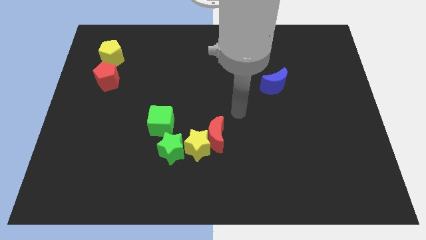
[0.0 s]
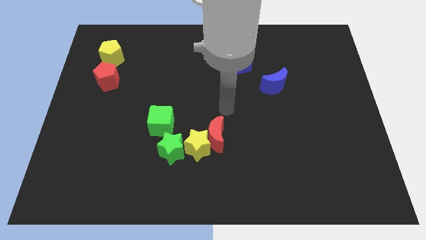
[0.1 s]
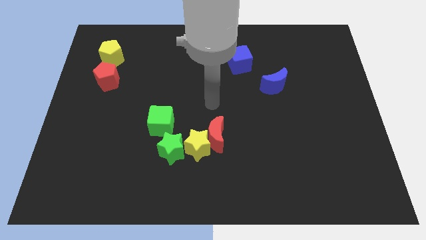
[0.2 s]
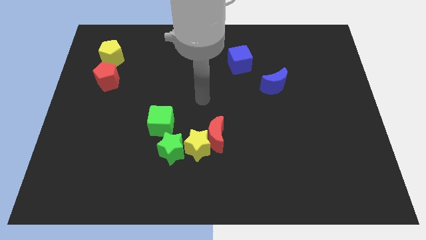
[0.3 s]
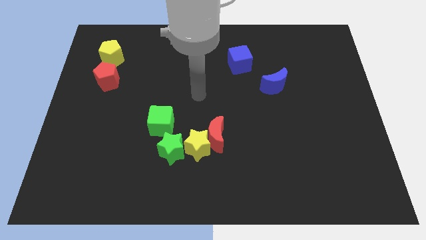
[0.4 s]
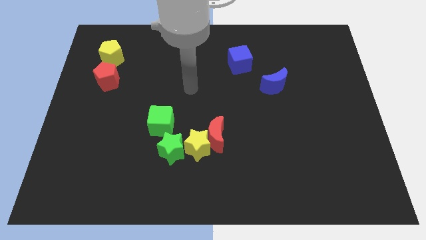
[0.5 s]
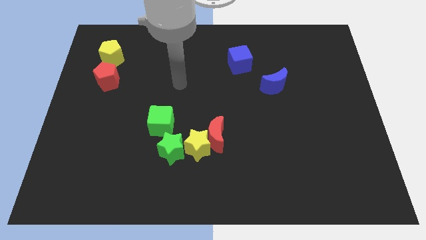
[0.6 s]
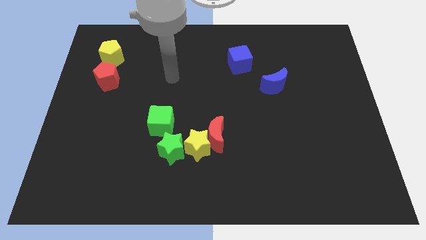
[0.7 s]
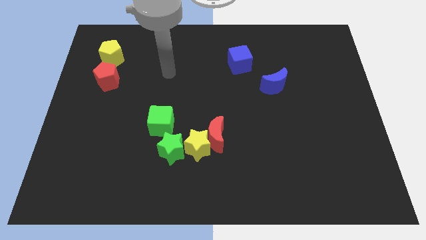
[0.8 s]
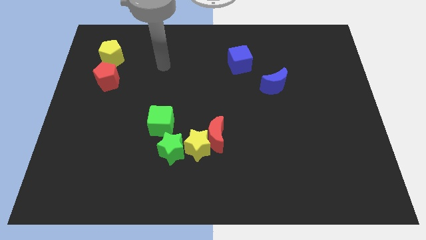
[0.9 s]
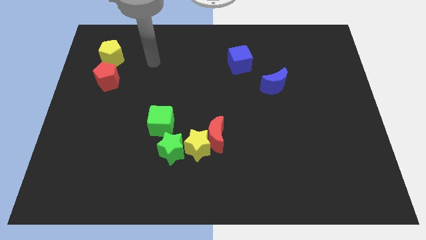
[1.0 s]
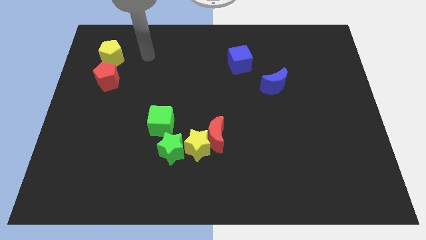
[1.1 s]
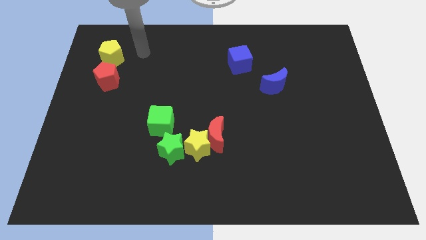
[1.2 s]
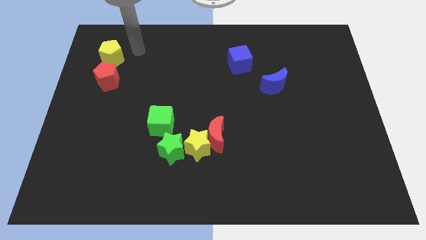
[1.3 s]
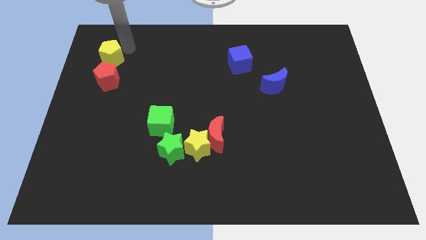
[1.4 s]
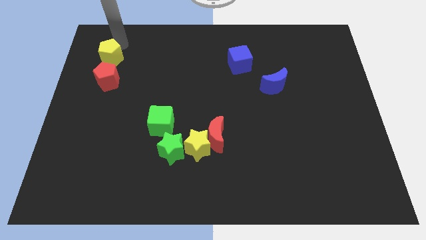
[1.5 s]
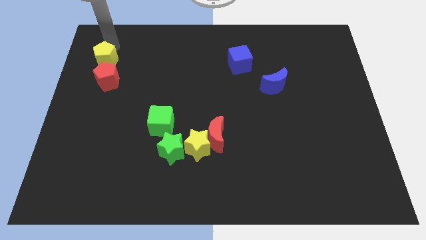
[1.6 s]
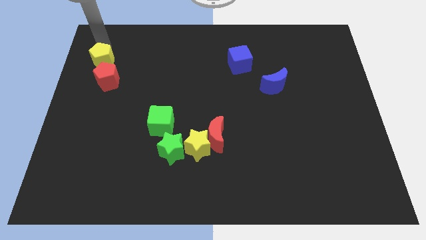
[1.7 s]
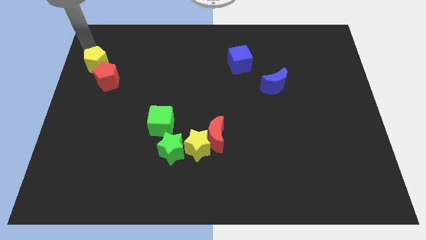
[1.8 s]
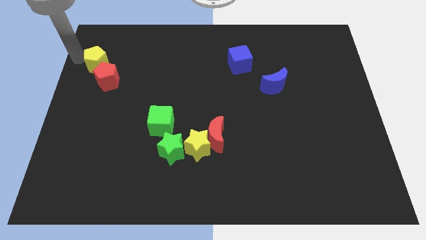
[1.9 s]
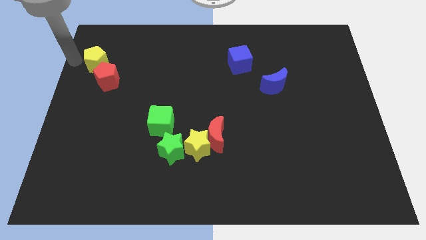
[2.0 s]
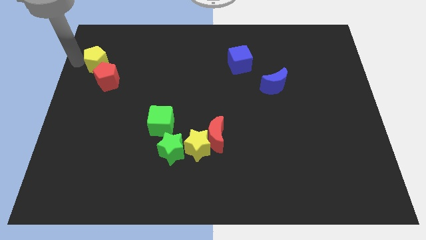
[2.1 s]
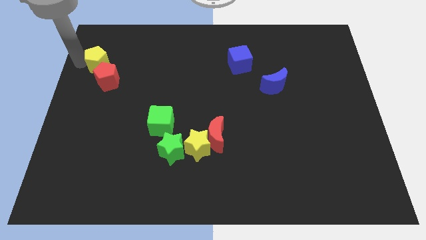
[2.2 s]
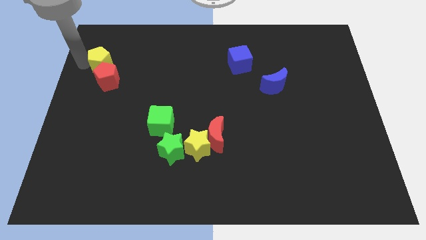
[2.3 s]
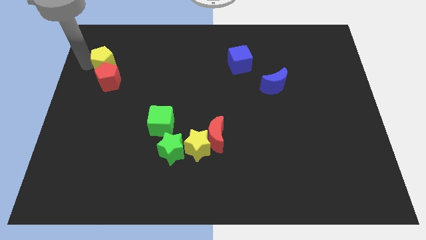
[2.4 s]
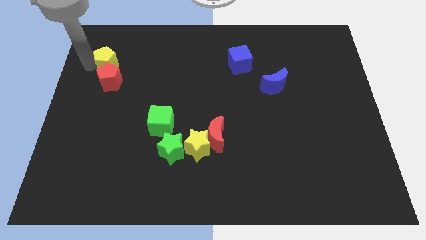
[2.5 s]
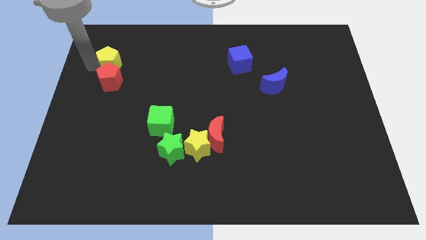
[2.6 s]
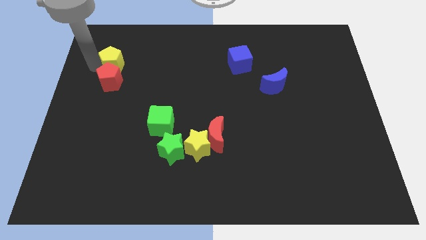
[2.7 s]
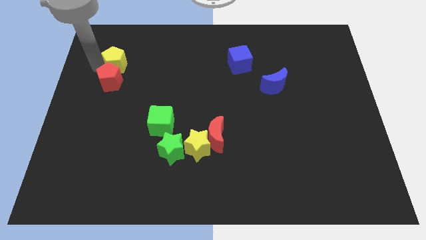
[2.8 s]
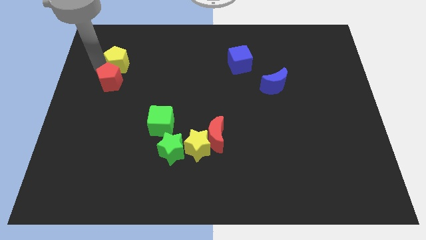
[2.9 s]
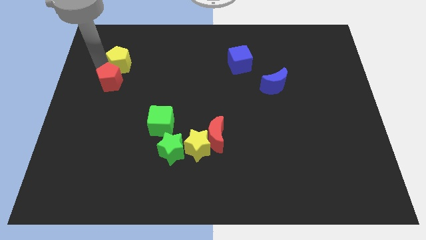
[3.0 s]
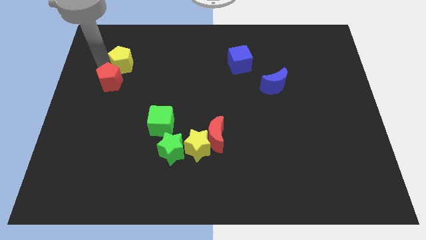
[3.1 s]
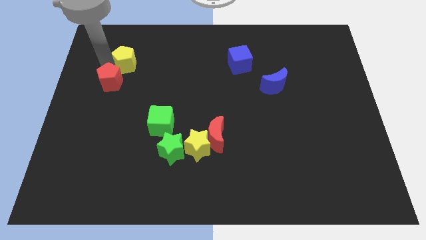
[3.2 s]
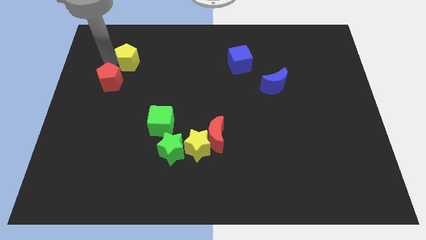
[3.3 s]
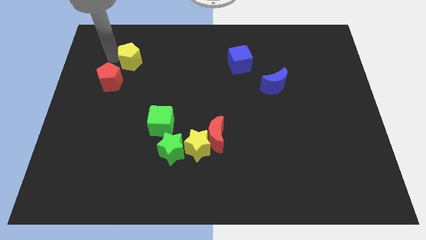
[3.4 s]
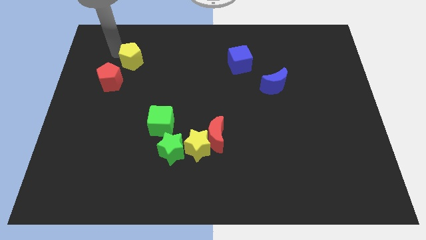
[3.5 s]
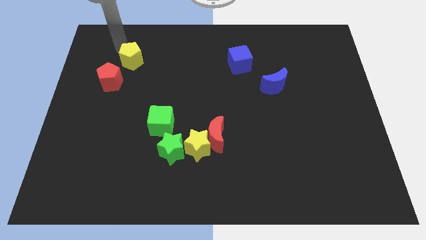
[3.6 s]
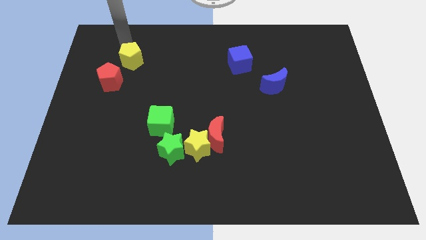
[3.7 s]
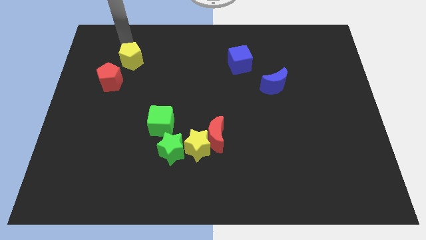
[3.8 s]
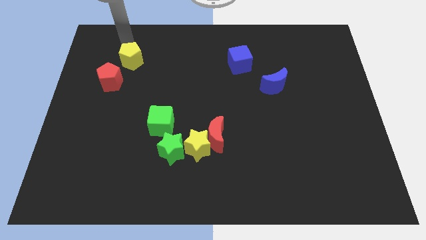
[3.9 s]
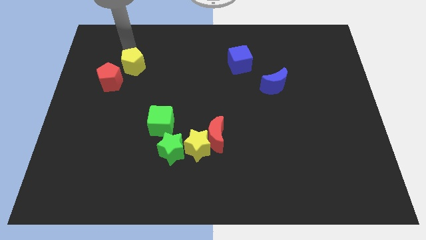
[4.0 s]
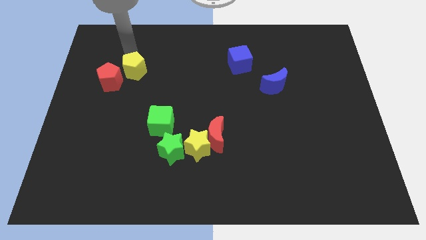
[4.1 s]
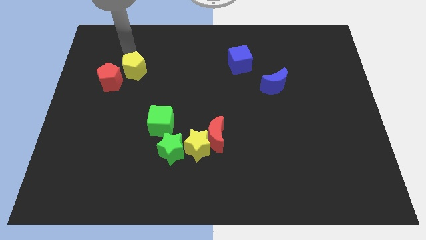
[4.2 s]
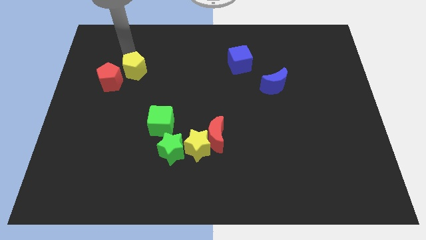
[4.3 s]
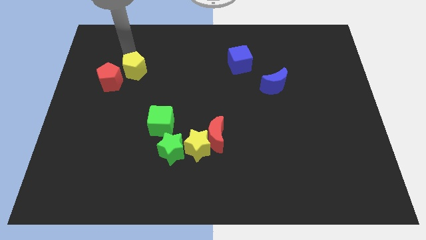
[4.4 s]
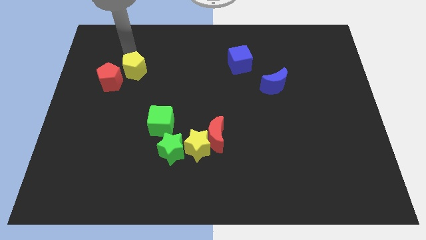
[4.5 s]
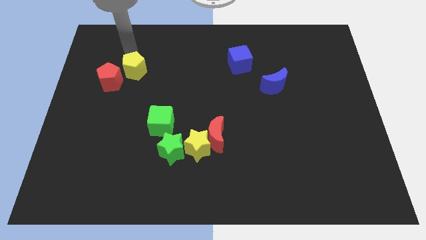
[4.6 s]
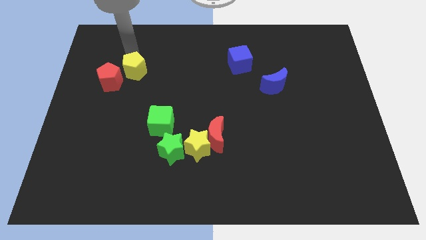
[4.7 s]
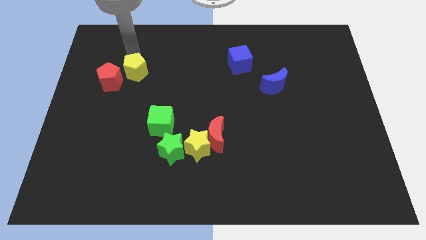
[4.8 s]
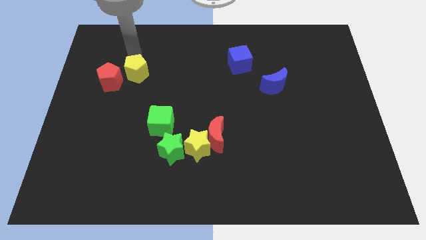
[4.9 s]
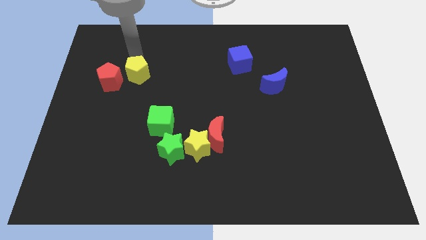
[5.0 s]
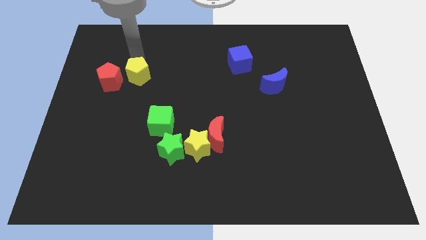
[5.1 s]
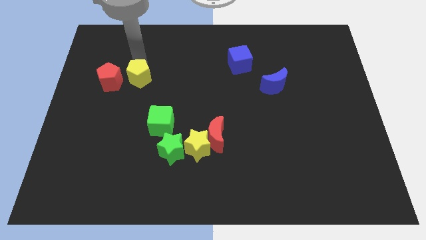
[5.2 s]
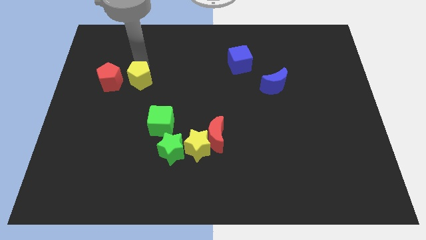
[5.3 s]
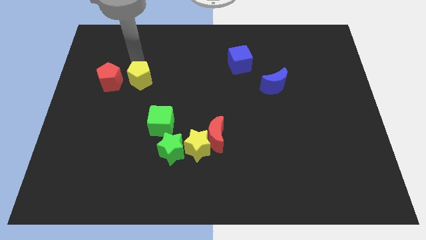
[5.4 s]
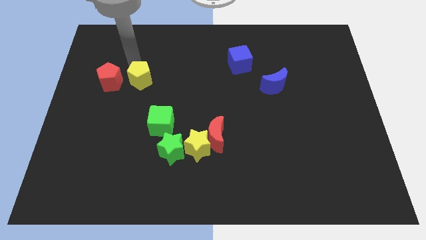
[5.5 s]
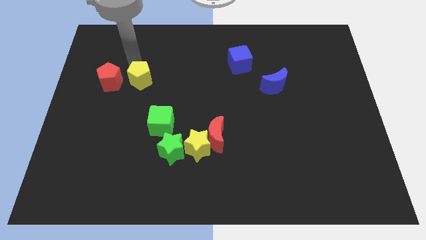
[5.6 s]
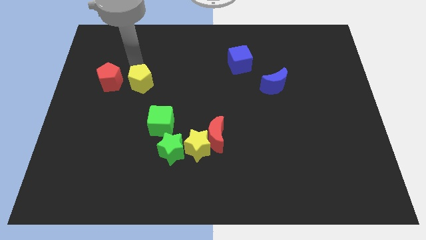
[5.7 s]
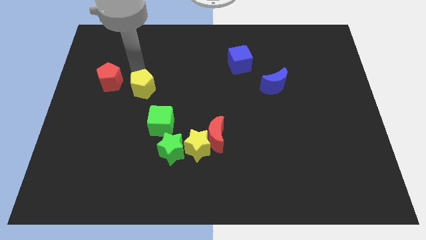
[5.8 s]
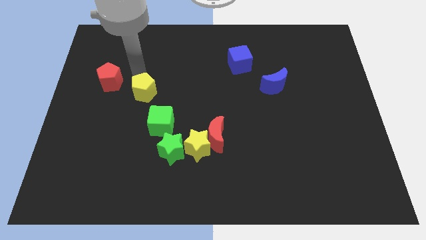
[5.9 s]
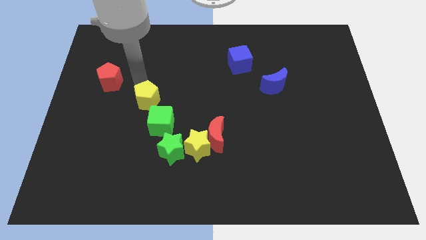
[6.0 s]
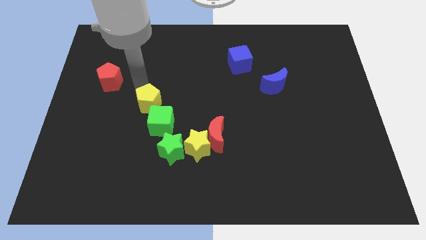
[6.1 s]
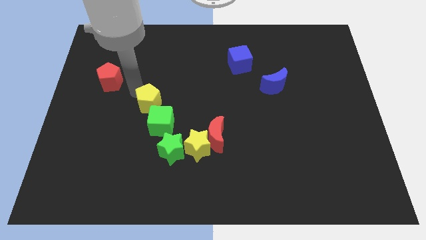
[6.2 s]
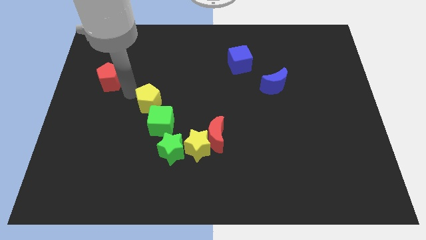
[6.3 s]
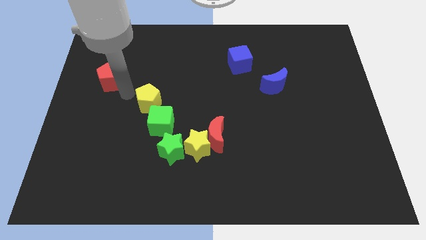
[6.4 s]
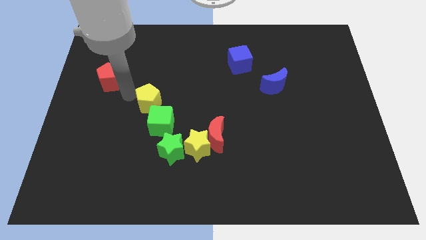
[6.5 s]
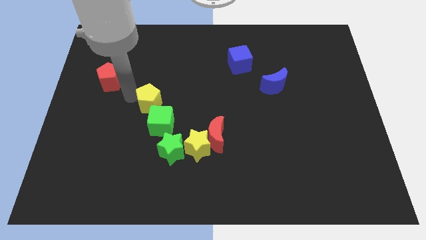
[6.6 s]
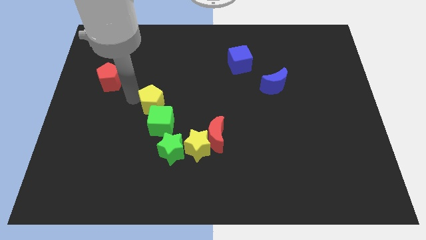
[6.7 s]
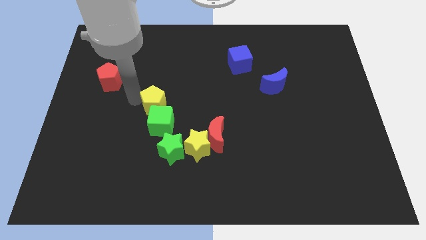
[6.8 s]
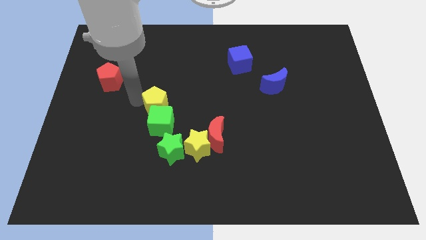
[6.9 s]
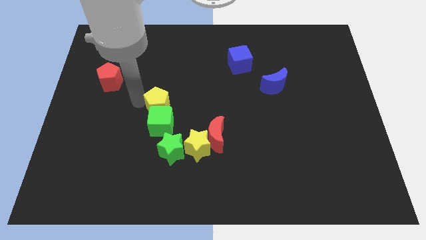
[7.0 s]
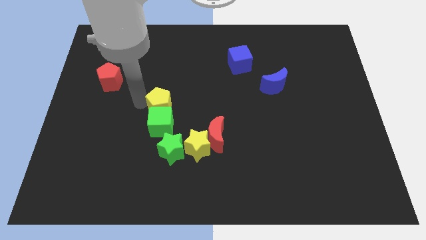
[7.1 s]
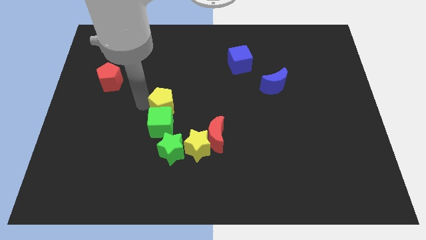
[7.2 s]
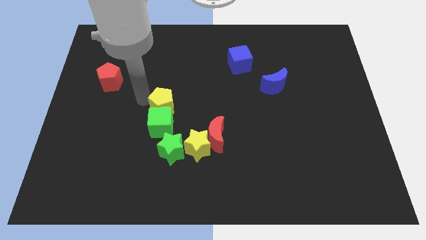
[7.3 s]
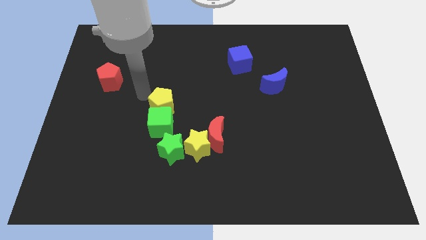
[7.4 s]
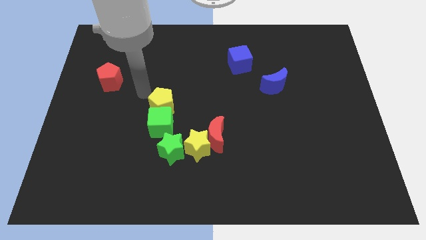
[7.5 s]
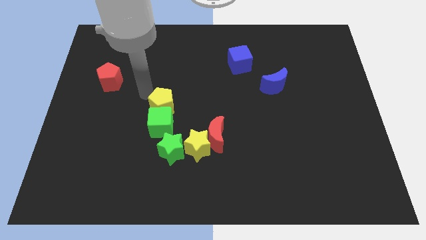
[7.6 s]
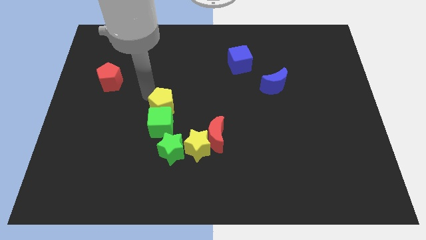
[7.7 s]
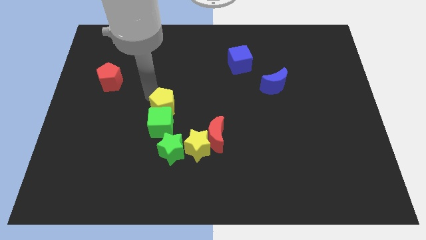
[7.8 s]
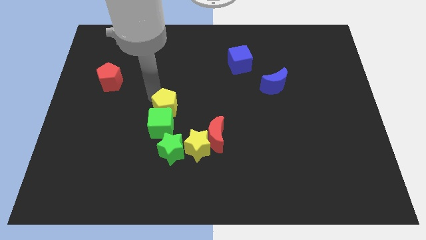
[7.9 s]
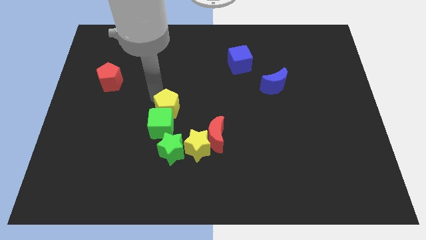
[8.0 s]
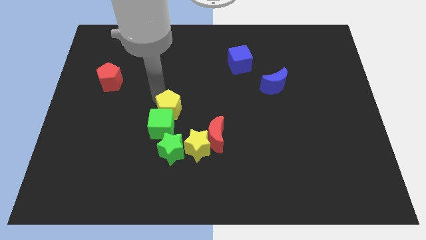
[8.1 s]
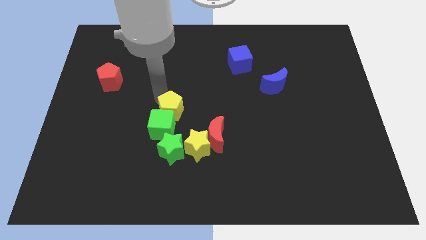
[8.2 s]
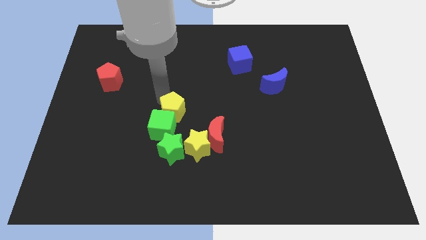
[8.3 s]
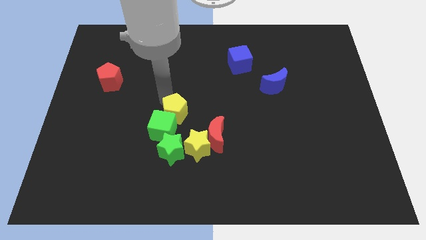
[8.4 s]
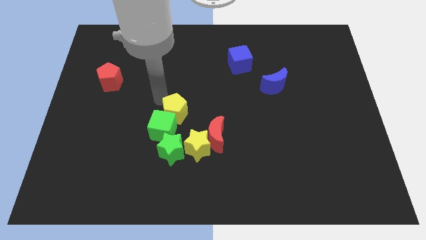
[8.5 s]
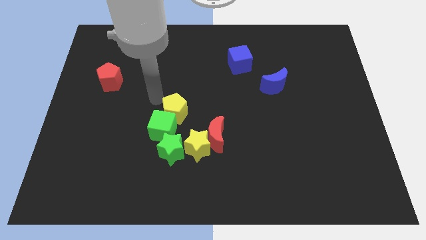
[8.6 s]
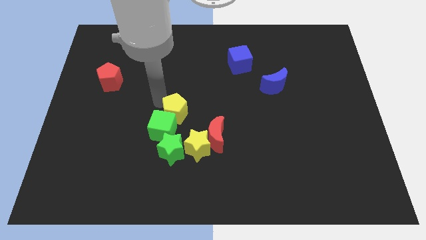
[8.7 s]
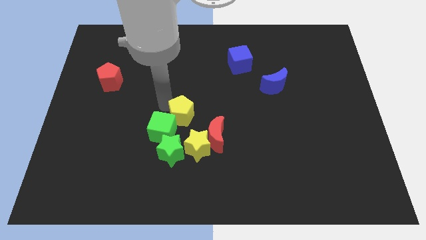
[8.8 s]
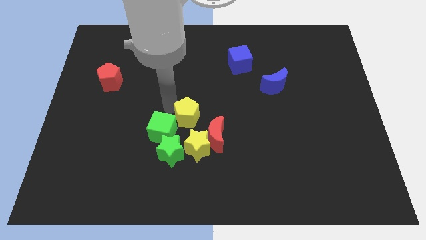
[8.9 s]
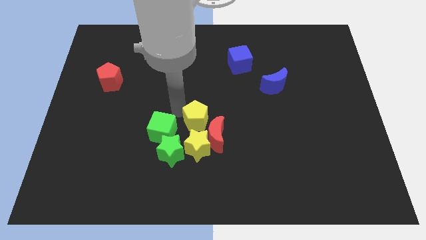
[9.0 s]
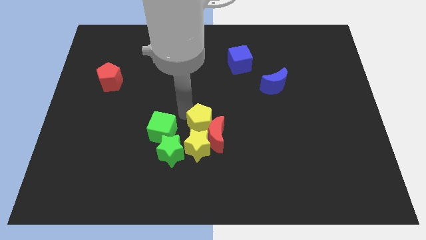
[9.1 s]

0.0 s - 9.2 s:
move the yellow pentagon close to the red moon
